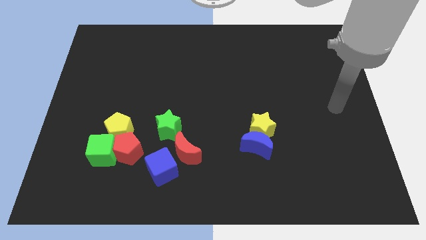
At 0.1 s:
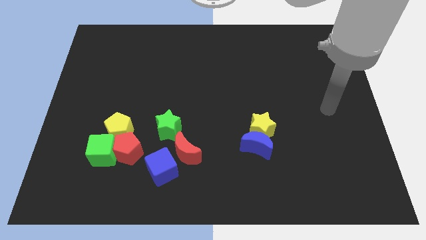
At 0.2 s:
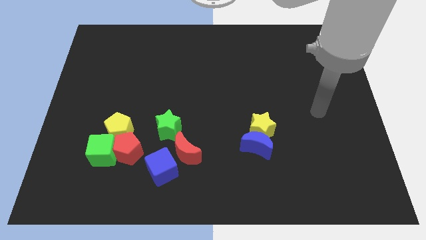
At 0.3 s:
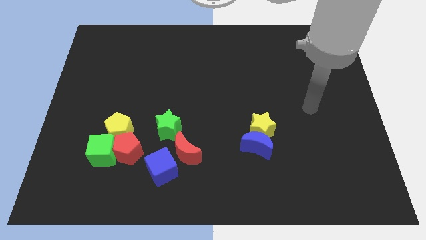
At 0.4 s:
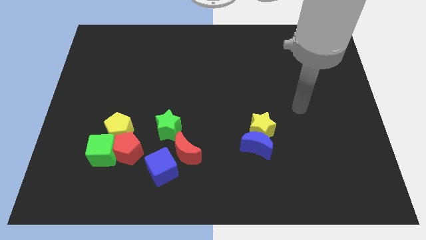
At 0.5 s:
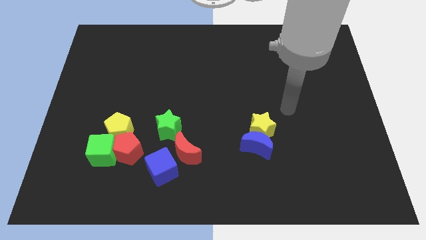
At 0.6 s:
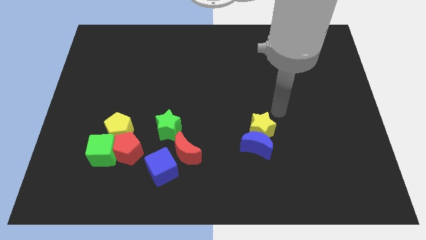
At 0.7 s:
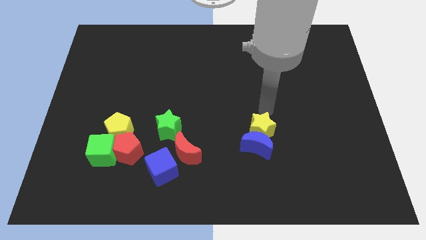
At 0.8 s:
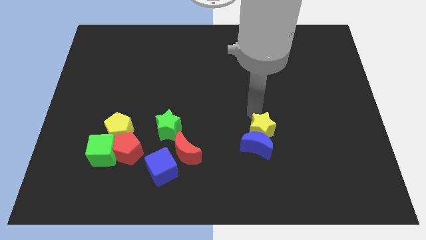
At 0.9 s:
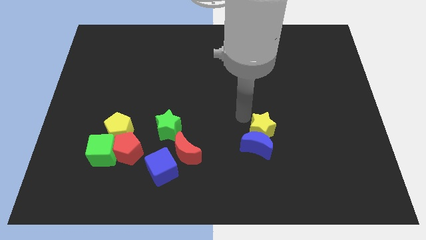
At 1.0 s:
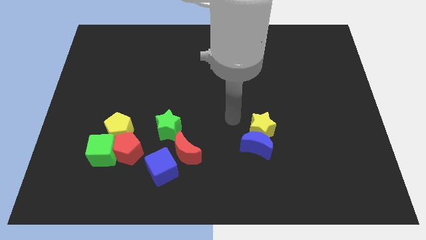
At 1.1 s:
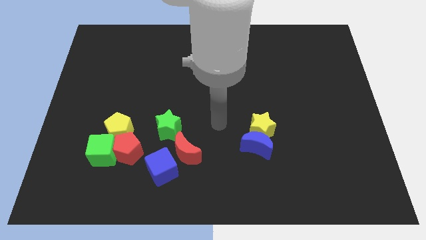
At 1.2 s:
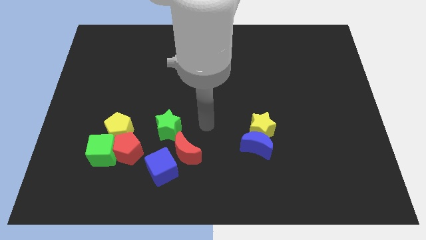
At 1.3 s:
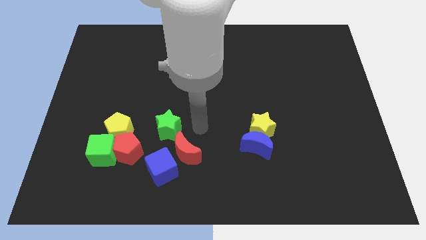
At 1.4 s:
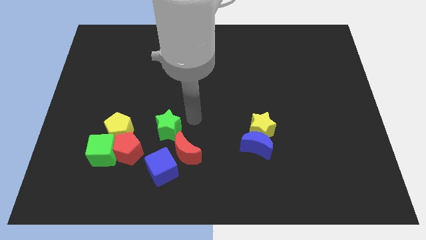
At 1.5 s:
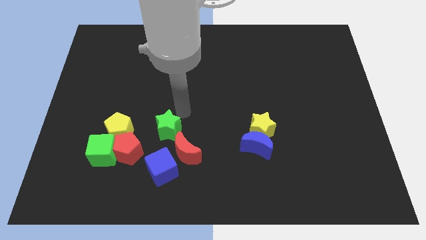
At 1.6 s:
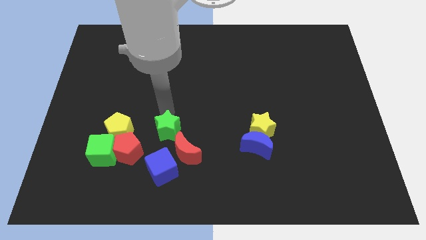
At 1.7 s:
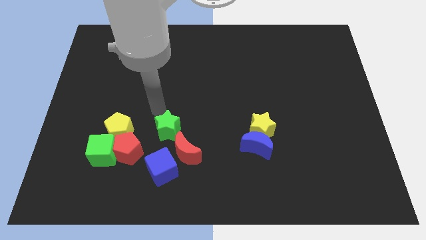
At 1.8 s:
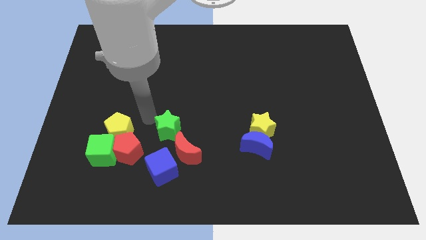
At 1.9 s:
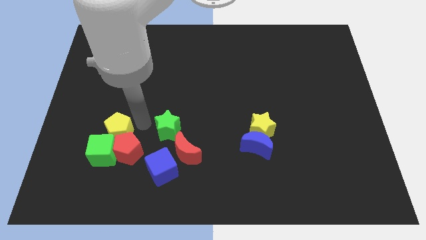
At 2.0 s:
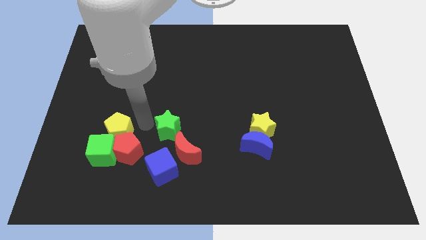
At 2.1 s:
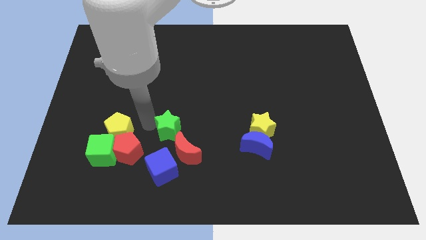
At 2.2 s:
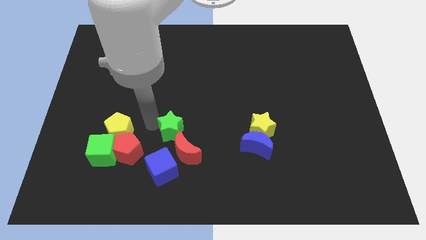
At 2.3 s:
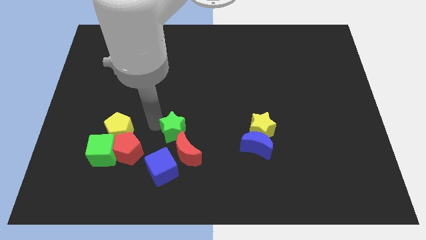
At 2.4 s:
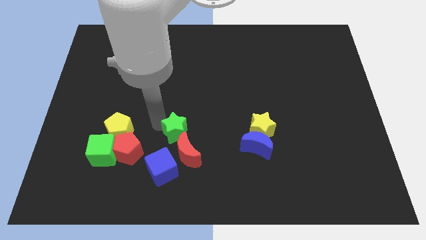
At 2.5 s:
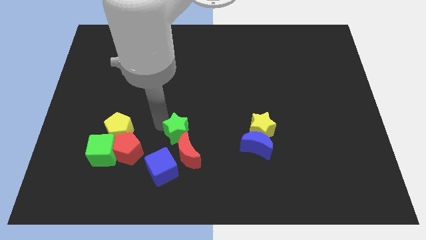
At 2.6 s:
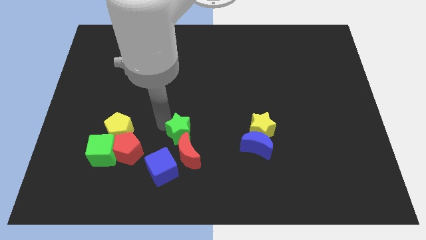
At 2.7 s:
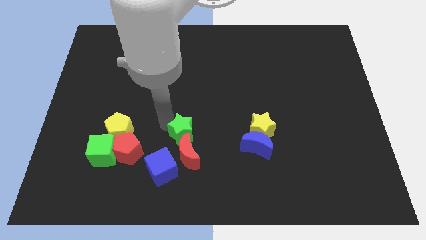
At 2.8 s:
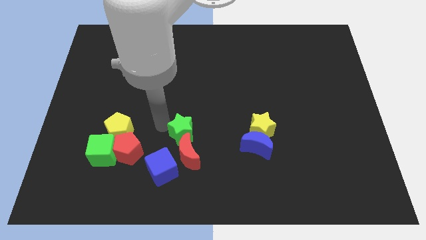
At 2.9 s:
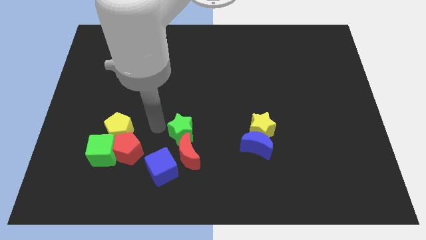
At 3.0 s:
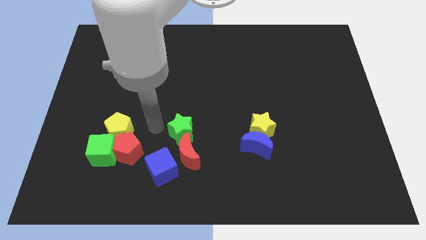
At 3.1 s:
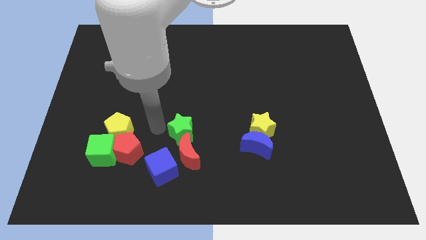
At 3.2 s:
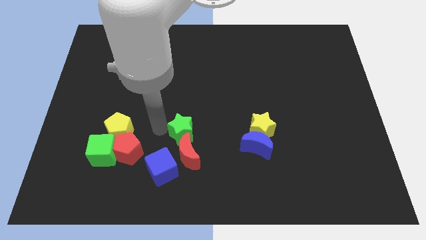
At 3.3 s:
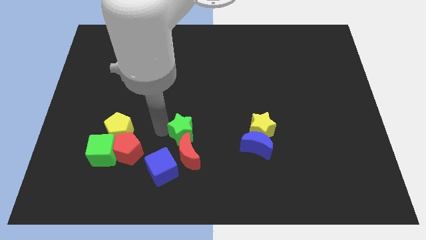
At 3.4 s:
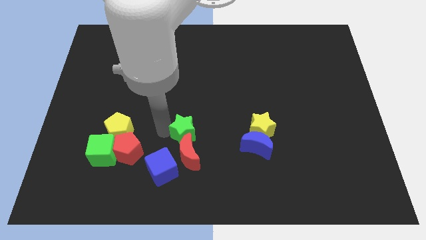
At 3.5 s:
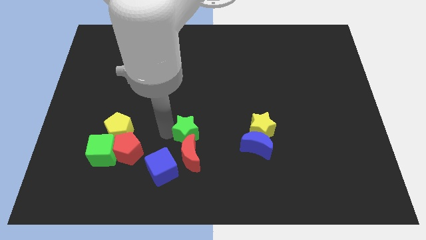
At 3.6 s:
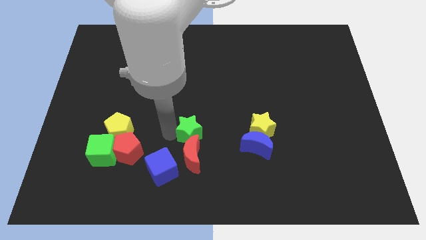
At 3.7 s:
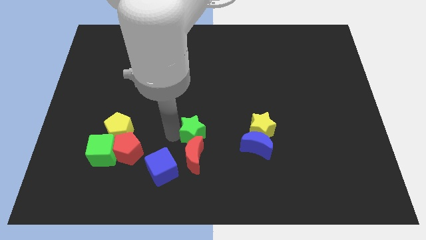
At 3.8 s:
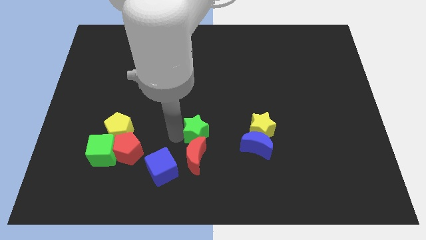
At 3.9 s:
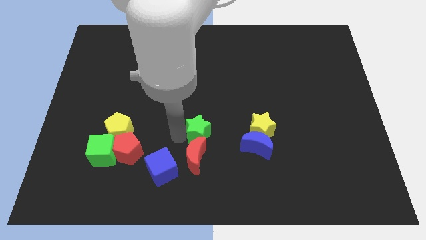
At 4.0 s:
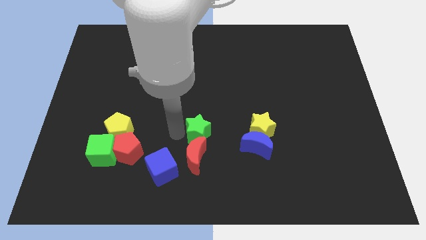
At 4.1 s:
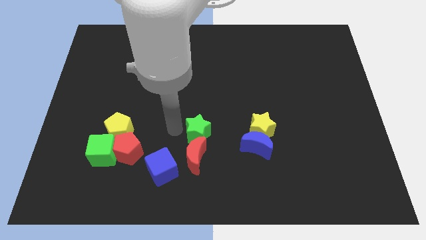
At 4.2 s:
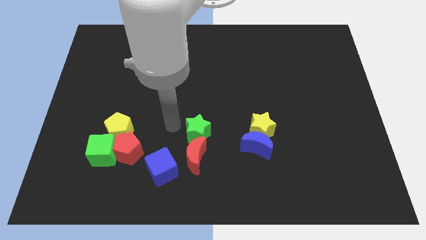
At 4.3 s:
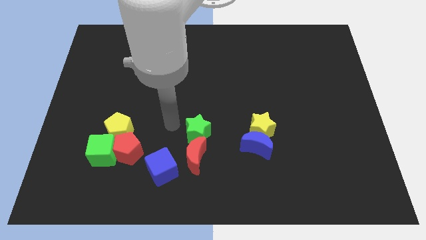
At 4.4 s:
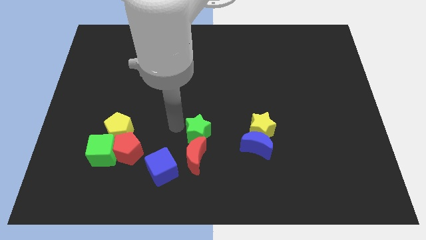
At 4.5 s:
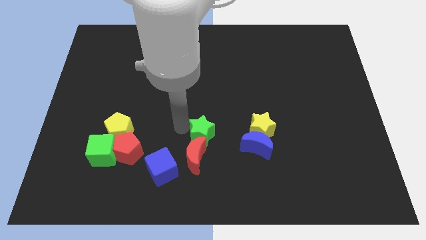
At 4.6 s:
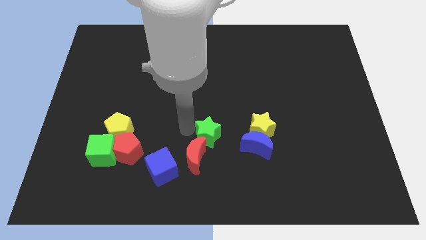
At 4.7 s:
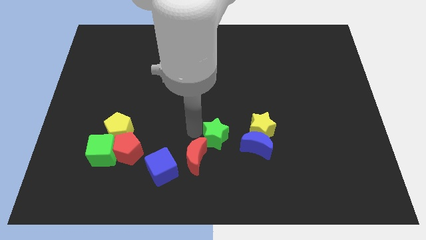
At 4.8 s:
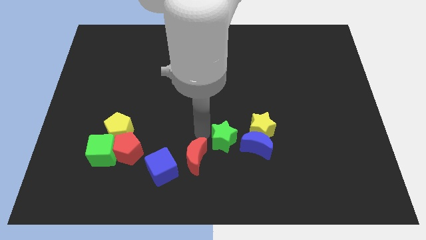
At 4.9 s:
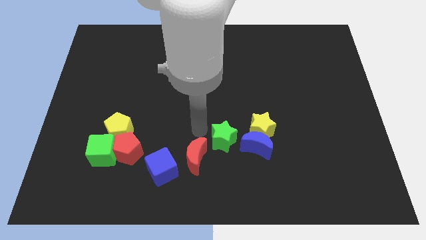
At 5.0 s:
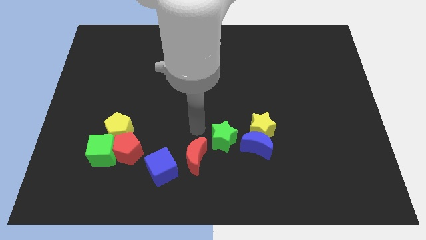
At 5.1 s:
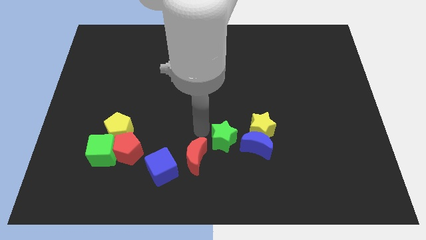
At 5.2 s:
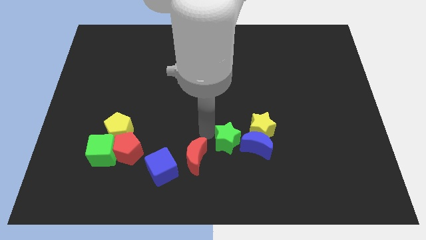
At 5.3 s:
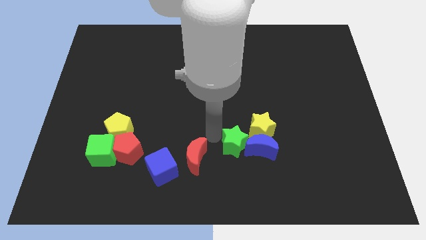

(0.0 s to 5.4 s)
move the green star towards the blue moon

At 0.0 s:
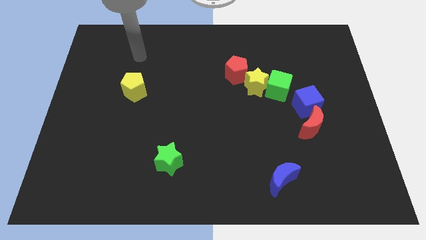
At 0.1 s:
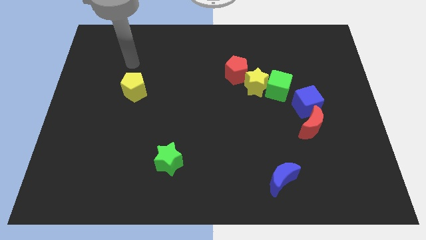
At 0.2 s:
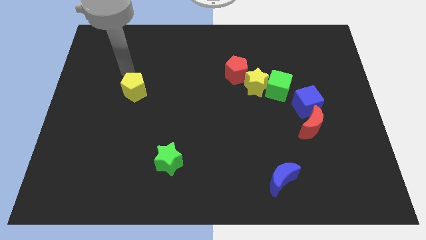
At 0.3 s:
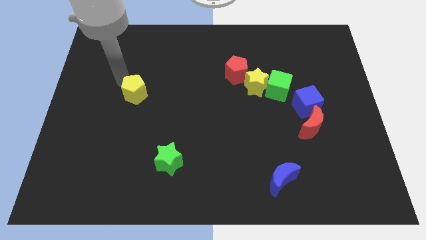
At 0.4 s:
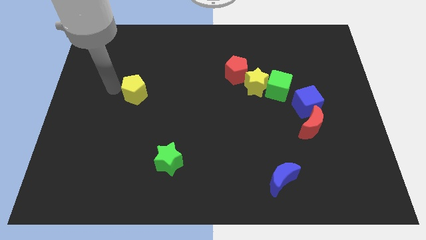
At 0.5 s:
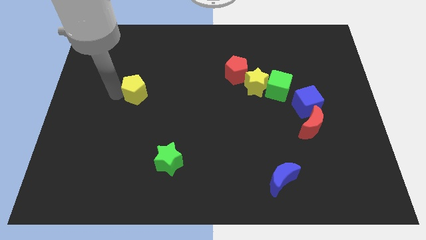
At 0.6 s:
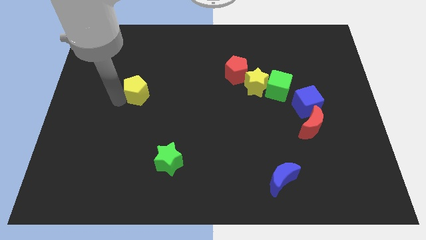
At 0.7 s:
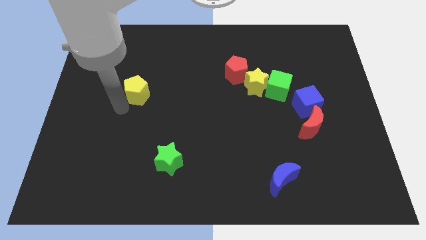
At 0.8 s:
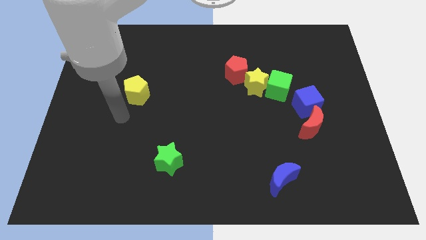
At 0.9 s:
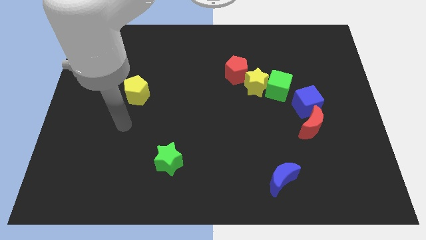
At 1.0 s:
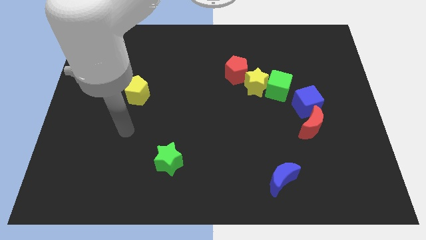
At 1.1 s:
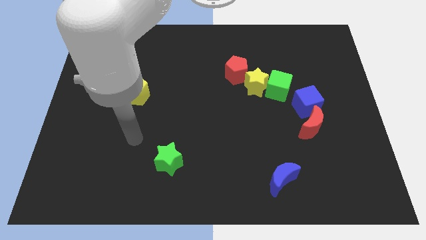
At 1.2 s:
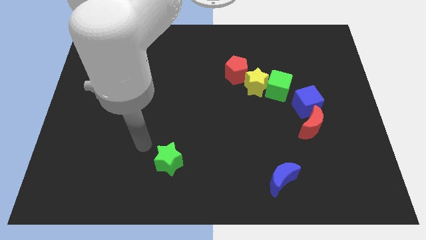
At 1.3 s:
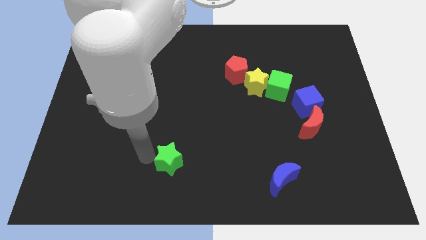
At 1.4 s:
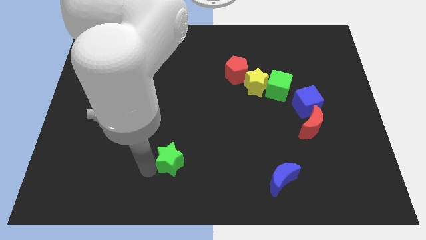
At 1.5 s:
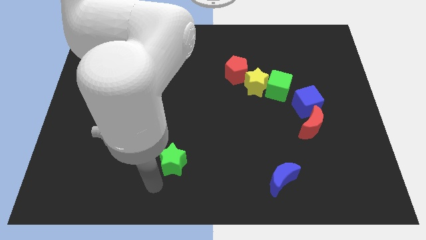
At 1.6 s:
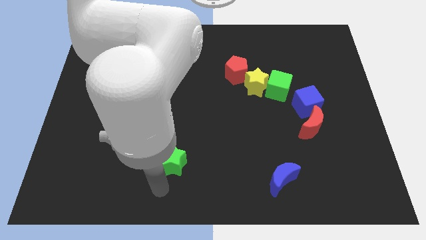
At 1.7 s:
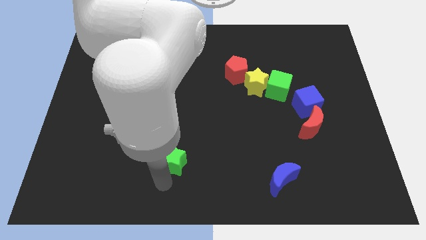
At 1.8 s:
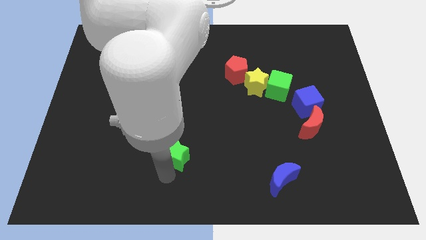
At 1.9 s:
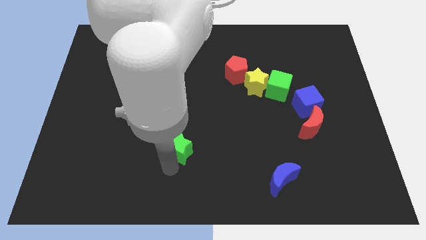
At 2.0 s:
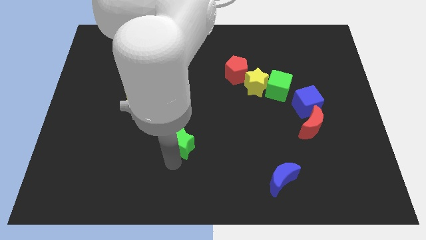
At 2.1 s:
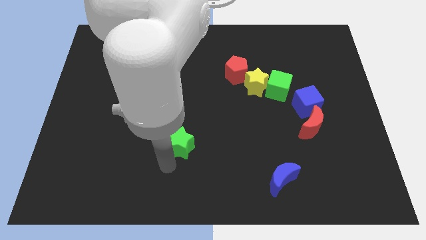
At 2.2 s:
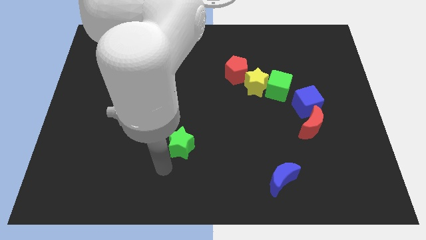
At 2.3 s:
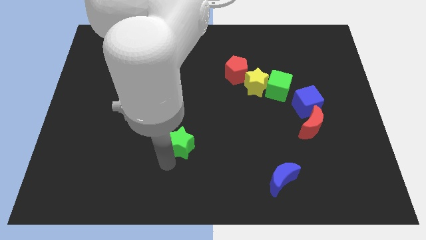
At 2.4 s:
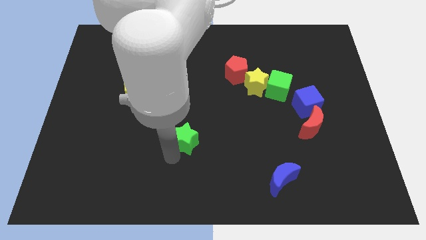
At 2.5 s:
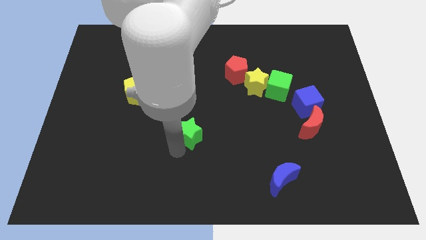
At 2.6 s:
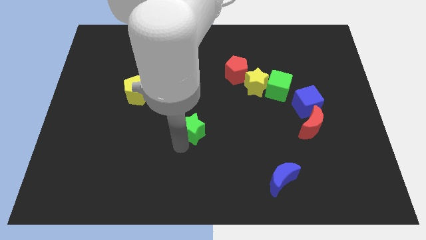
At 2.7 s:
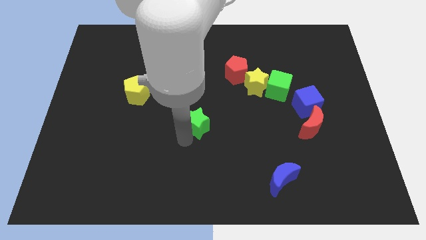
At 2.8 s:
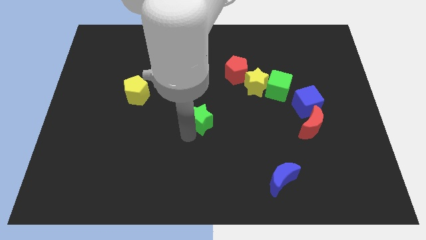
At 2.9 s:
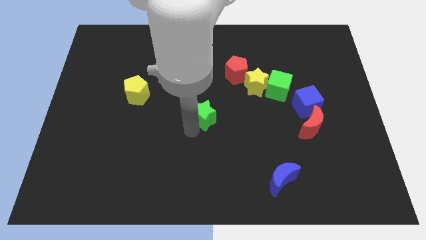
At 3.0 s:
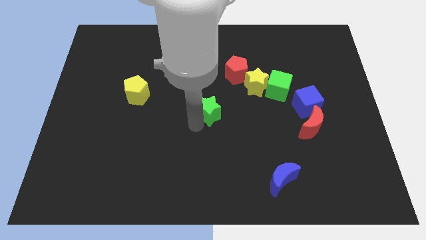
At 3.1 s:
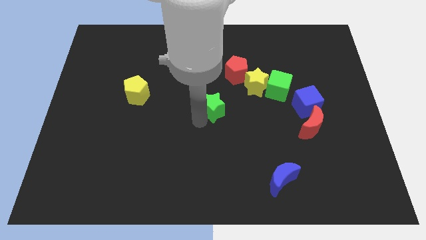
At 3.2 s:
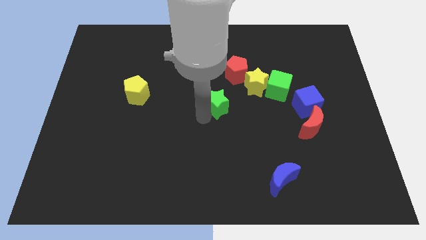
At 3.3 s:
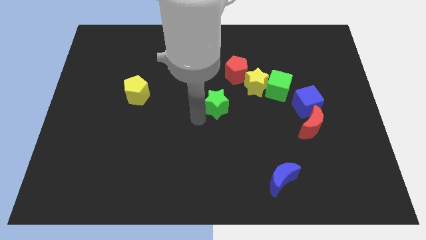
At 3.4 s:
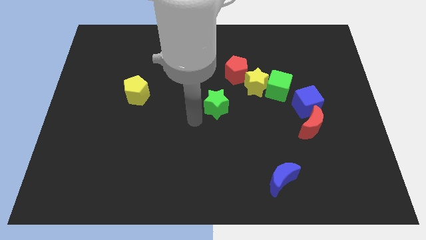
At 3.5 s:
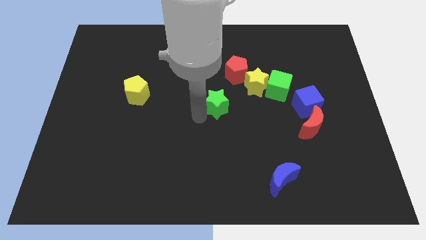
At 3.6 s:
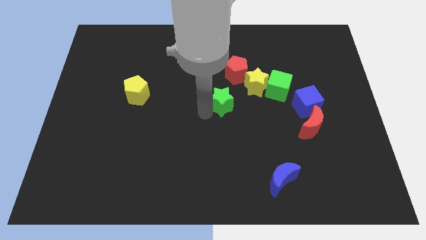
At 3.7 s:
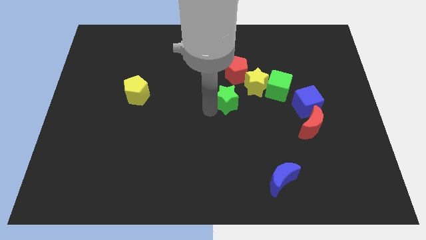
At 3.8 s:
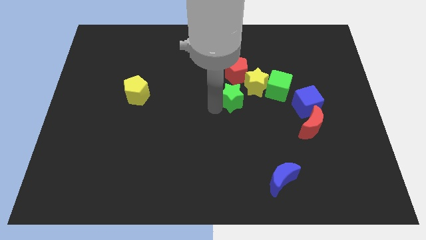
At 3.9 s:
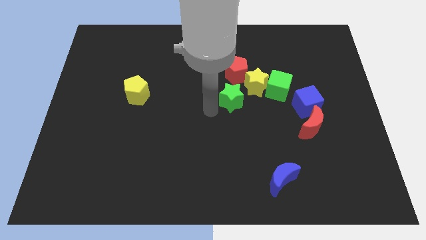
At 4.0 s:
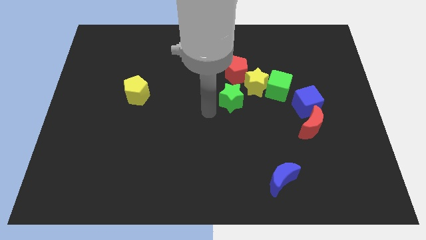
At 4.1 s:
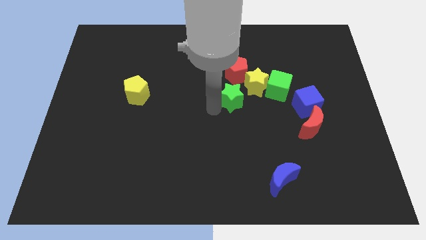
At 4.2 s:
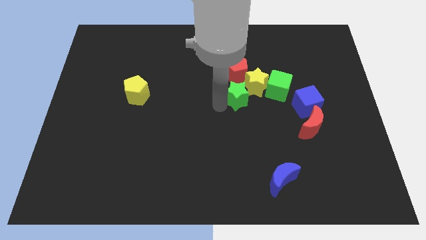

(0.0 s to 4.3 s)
move the green star close to the yellow star
